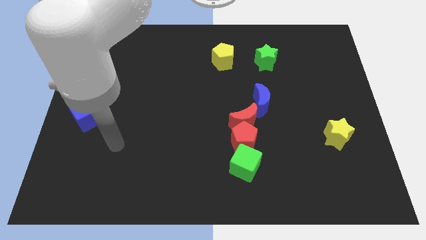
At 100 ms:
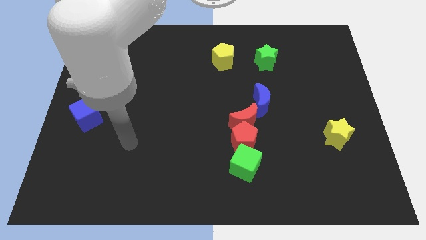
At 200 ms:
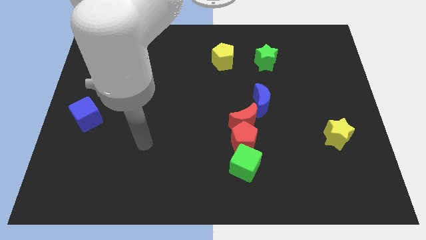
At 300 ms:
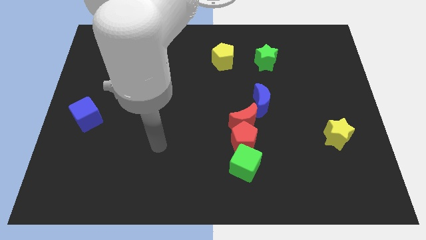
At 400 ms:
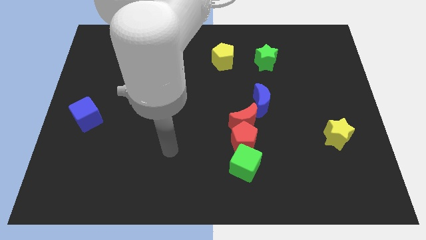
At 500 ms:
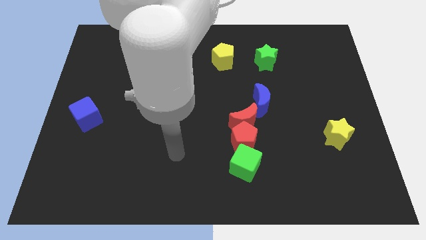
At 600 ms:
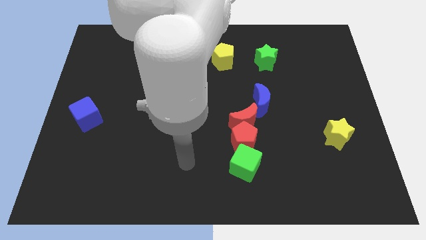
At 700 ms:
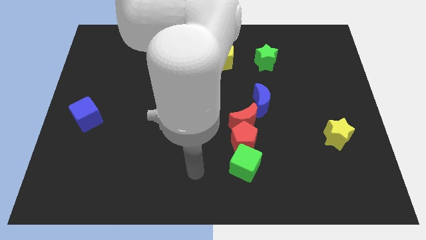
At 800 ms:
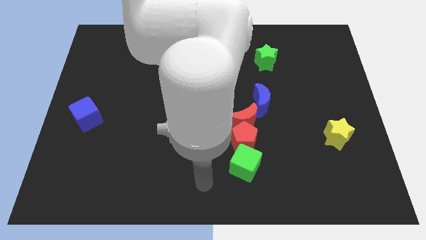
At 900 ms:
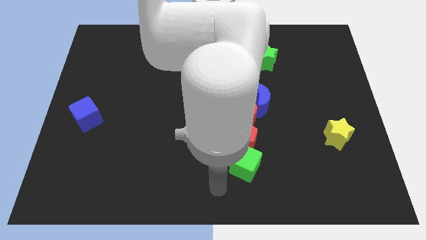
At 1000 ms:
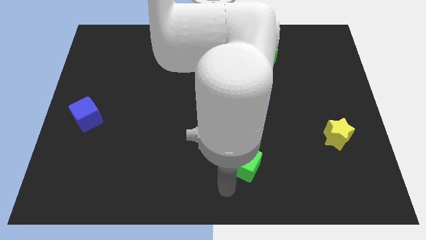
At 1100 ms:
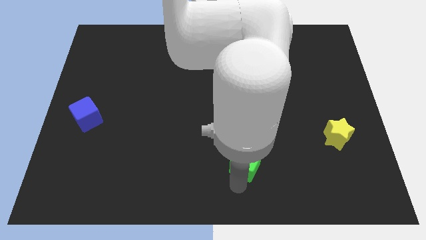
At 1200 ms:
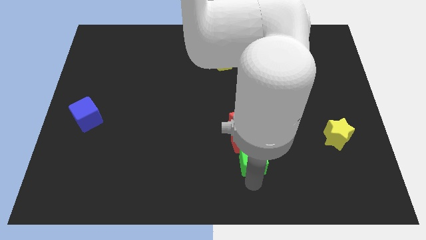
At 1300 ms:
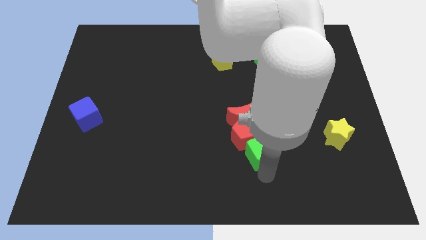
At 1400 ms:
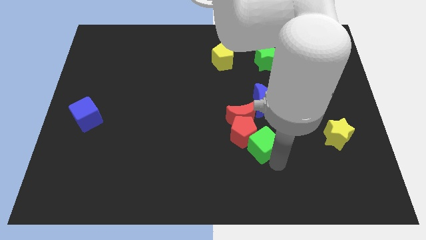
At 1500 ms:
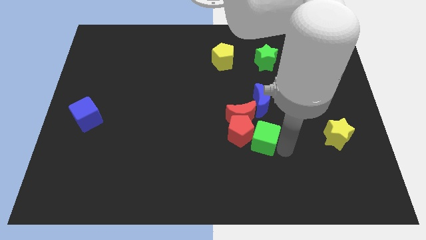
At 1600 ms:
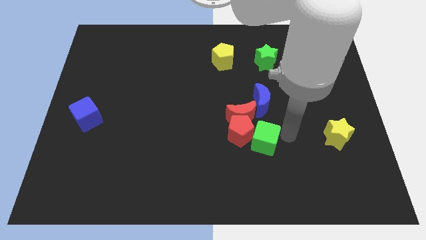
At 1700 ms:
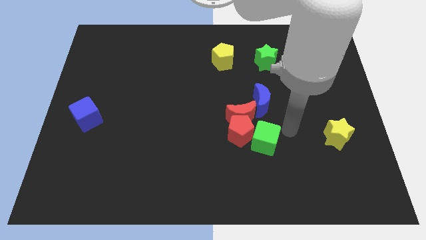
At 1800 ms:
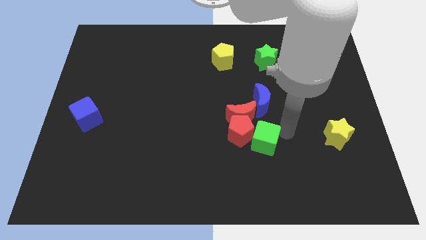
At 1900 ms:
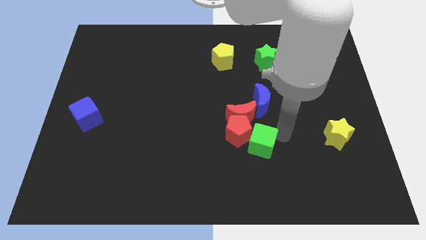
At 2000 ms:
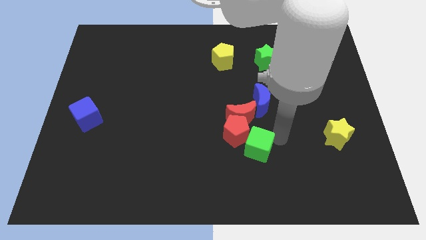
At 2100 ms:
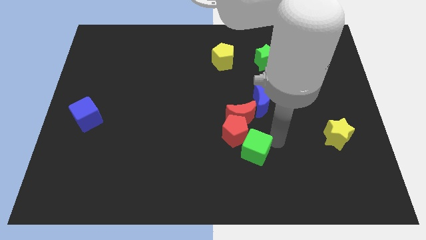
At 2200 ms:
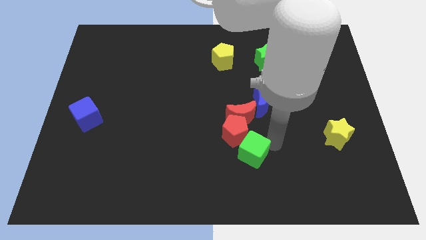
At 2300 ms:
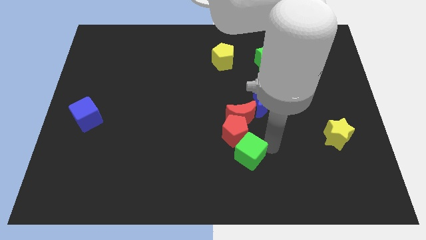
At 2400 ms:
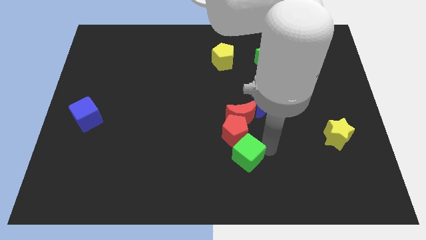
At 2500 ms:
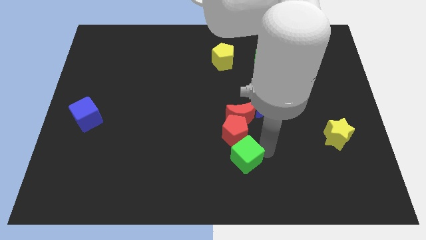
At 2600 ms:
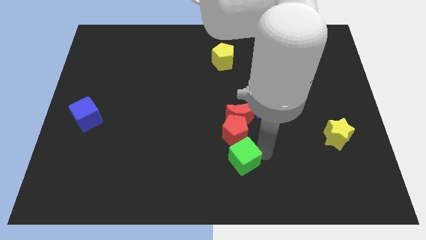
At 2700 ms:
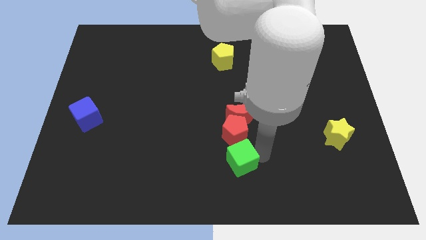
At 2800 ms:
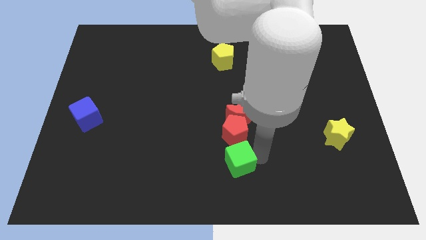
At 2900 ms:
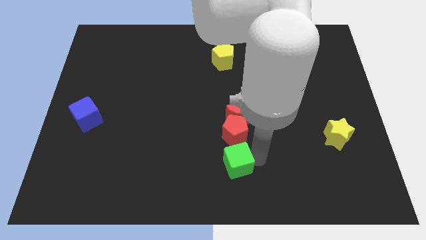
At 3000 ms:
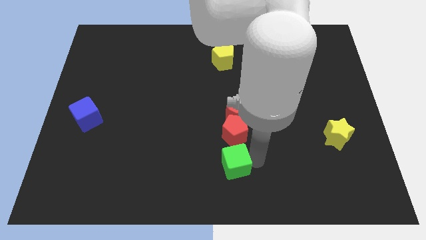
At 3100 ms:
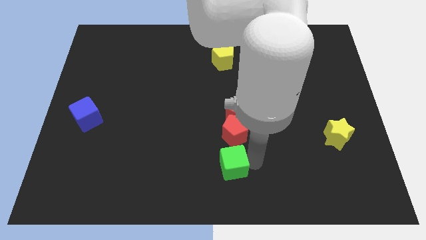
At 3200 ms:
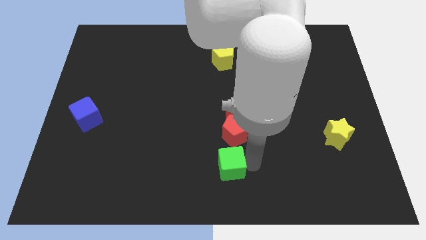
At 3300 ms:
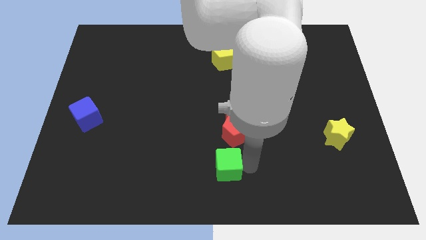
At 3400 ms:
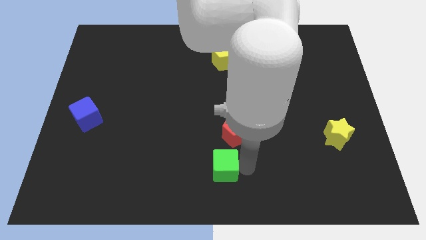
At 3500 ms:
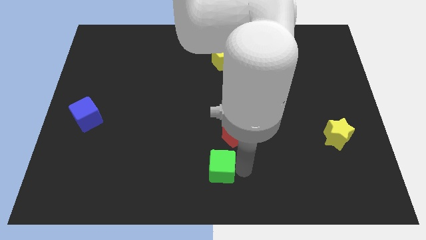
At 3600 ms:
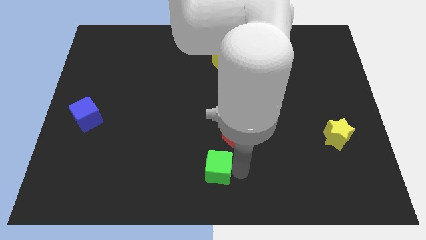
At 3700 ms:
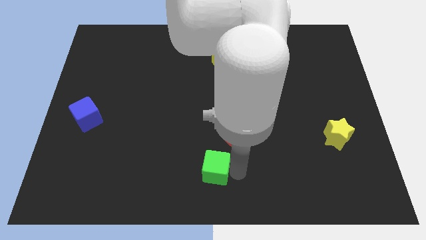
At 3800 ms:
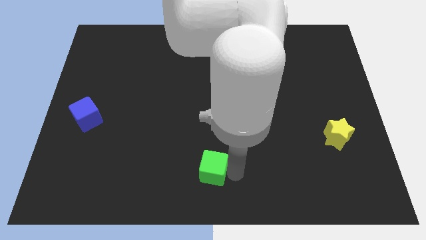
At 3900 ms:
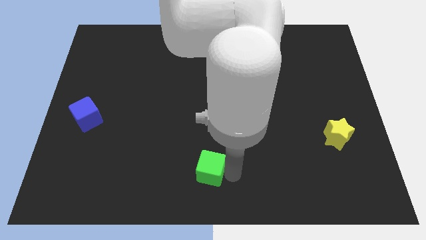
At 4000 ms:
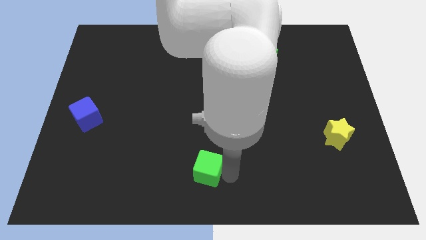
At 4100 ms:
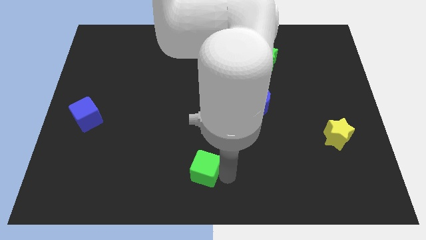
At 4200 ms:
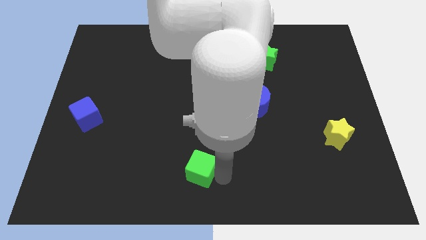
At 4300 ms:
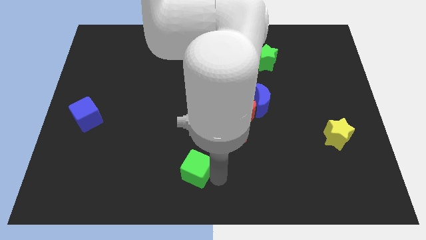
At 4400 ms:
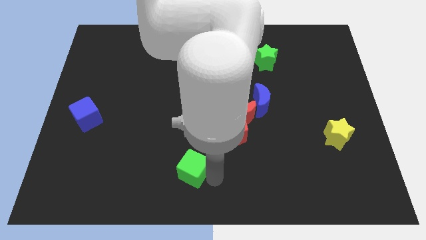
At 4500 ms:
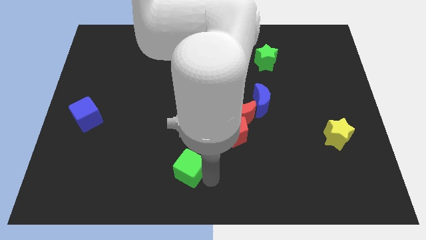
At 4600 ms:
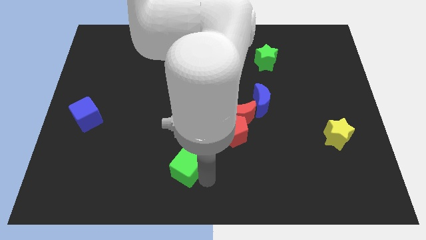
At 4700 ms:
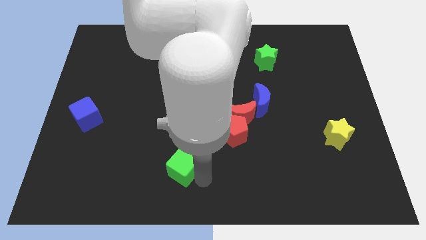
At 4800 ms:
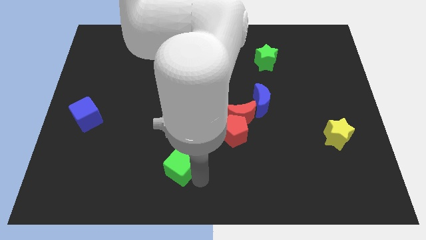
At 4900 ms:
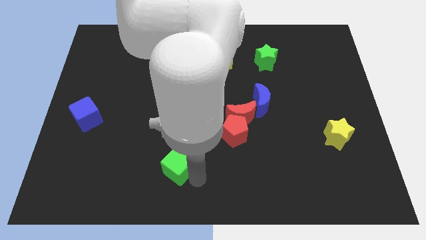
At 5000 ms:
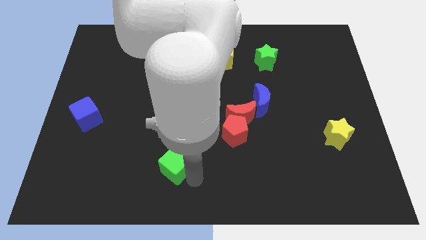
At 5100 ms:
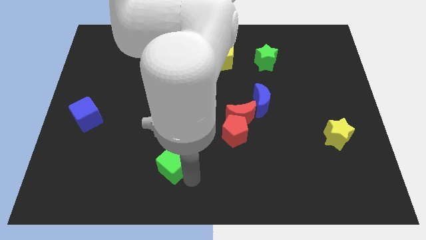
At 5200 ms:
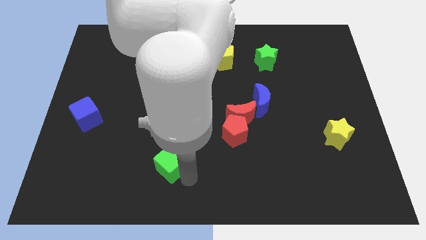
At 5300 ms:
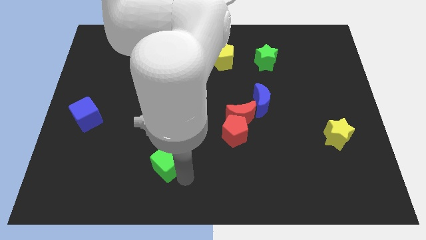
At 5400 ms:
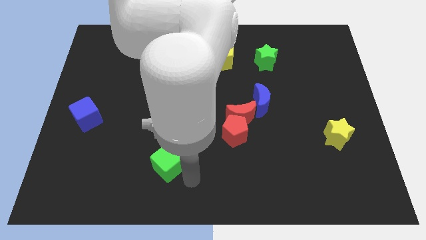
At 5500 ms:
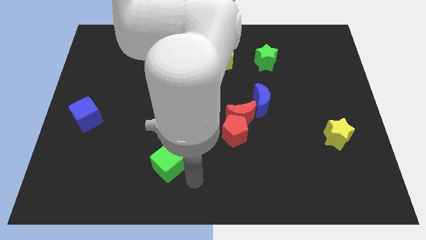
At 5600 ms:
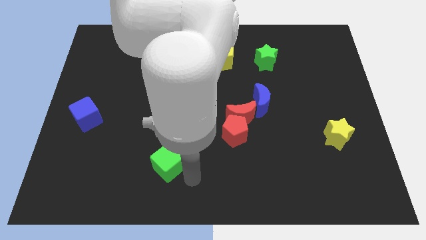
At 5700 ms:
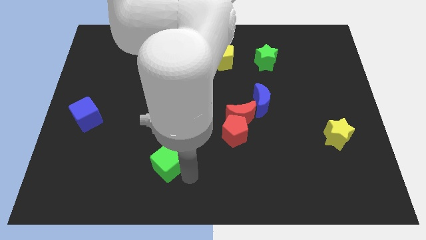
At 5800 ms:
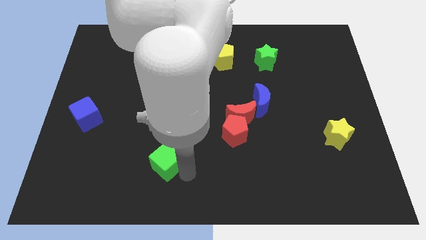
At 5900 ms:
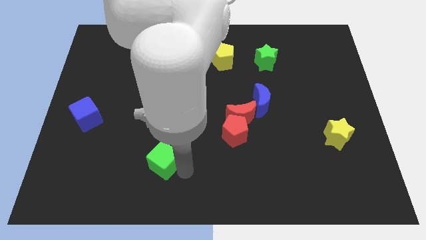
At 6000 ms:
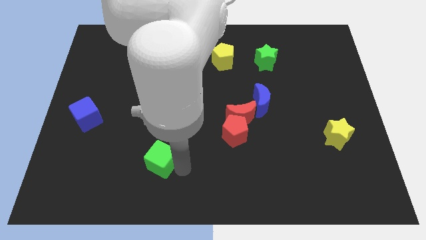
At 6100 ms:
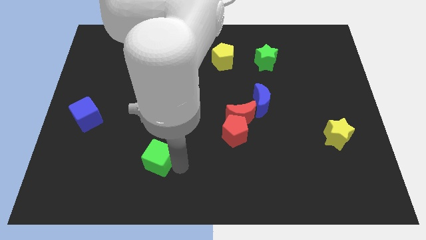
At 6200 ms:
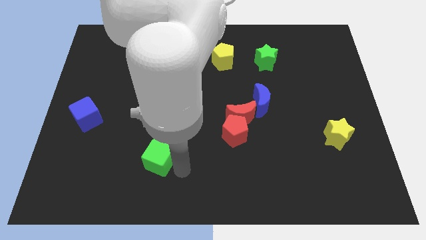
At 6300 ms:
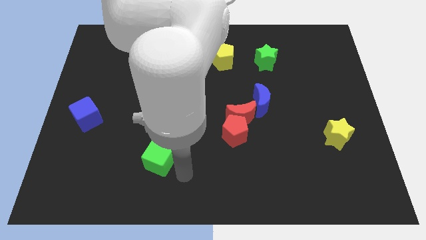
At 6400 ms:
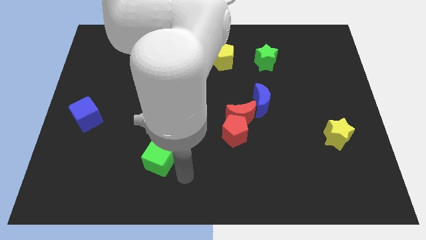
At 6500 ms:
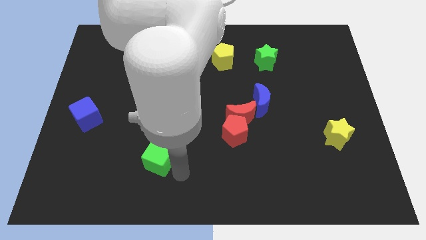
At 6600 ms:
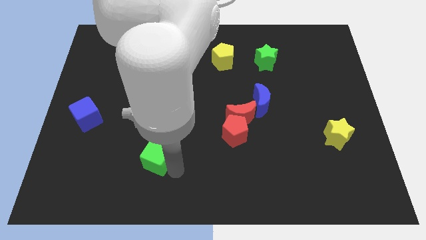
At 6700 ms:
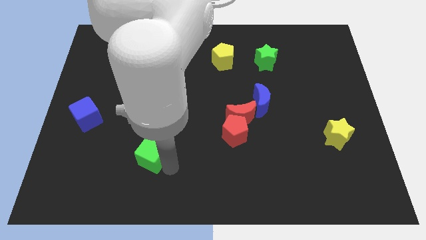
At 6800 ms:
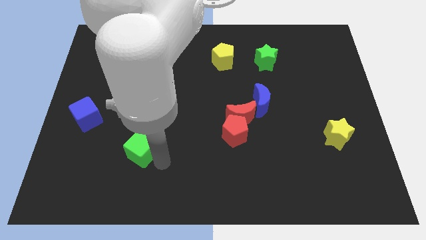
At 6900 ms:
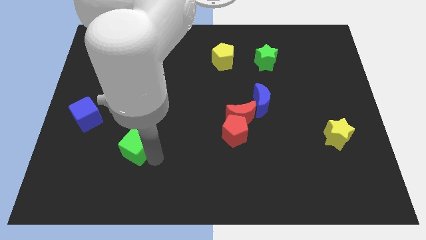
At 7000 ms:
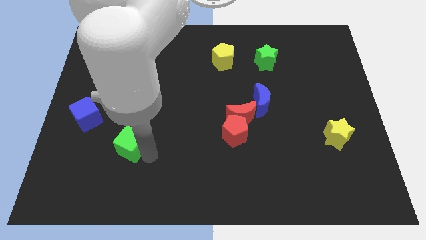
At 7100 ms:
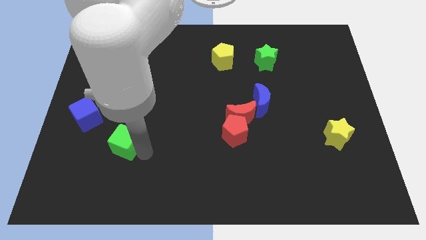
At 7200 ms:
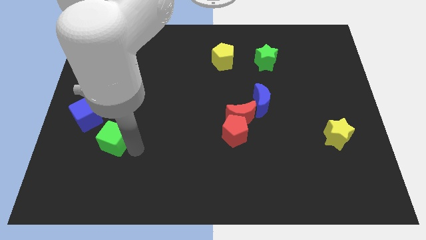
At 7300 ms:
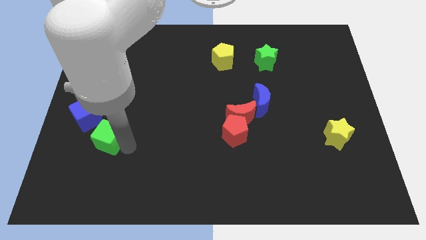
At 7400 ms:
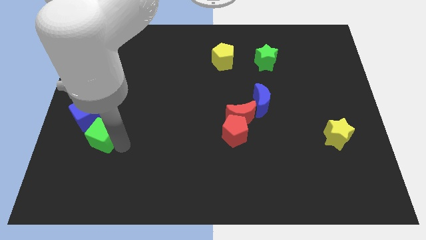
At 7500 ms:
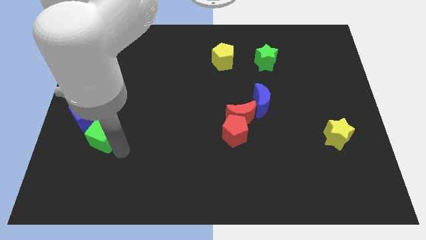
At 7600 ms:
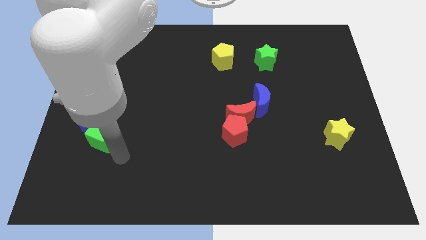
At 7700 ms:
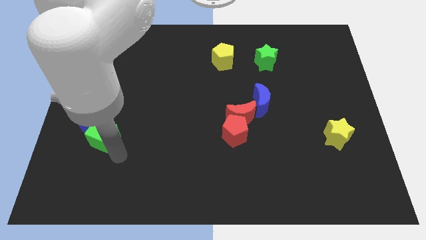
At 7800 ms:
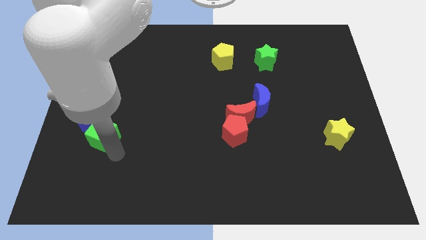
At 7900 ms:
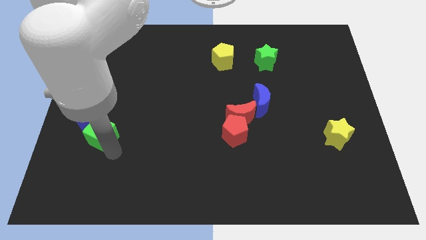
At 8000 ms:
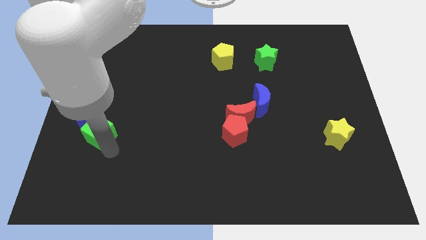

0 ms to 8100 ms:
slide the green cube close to the blue cube
